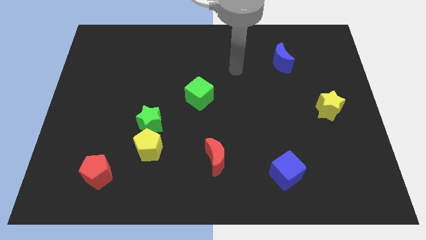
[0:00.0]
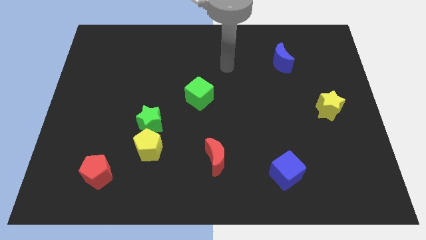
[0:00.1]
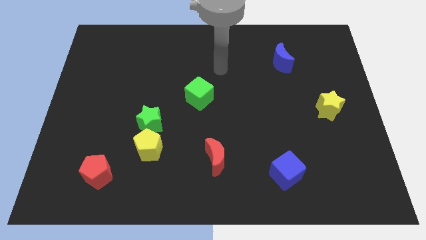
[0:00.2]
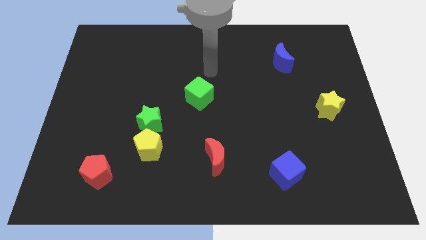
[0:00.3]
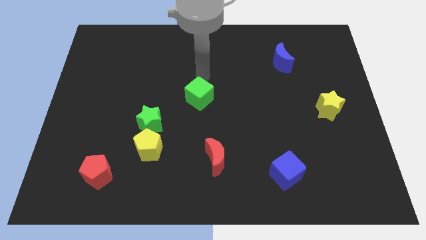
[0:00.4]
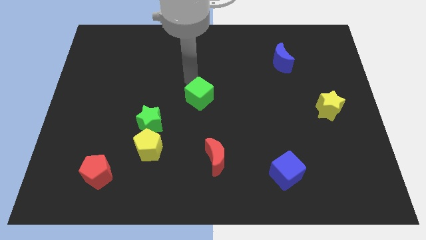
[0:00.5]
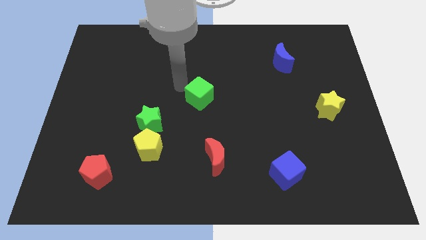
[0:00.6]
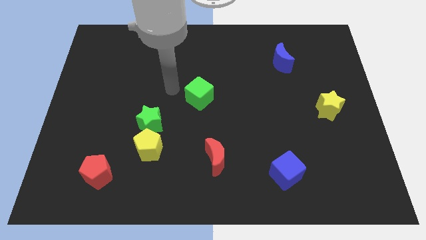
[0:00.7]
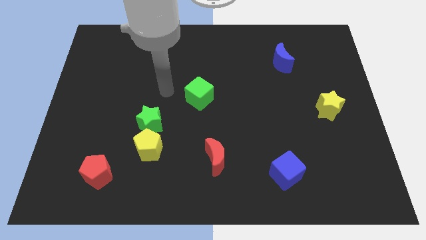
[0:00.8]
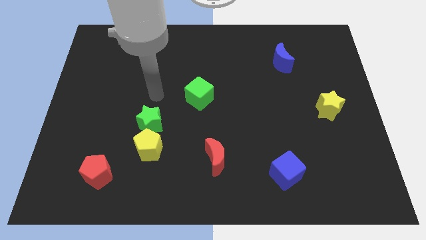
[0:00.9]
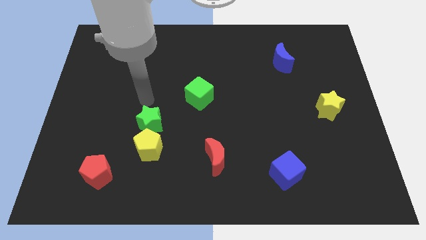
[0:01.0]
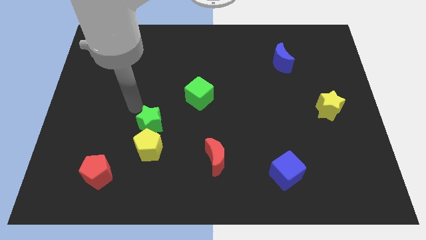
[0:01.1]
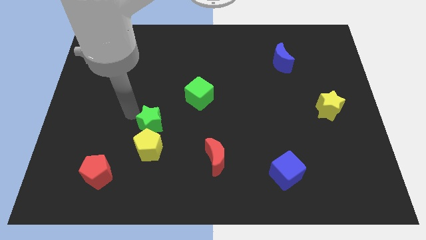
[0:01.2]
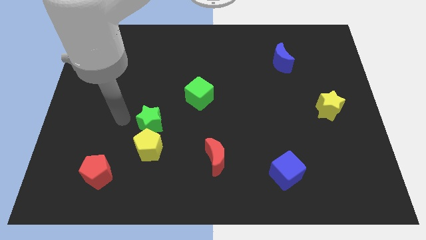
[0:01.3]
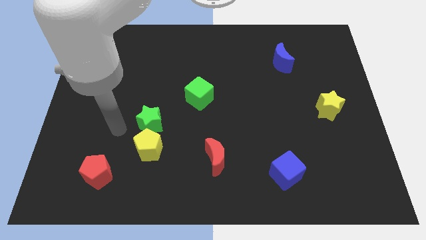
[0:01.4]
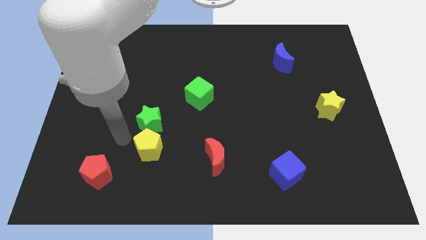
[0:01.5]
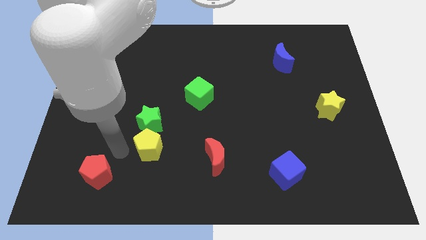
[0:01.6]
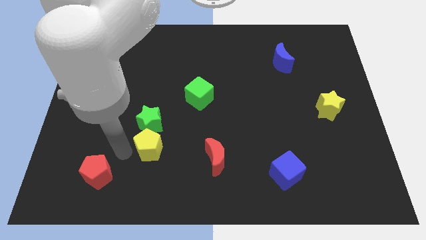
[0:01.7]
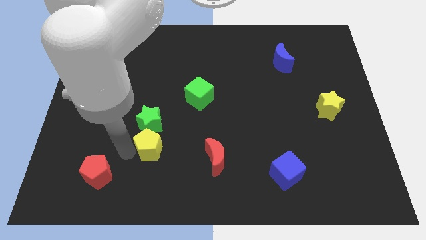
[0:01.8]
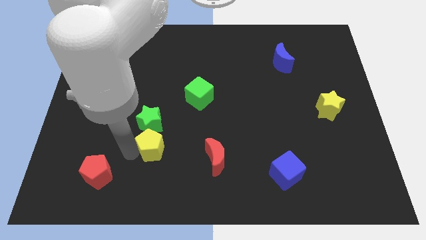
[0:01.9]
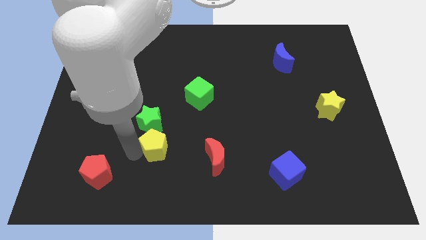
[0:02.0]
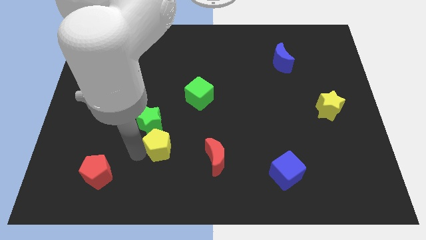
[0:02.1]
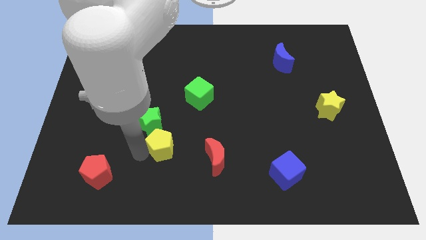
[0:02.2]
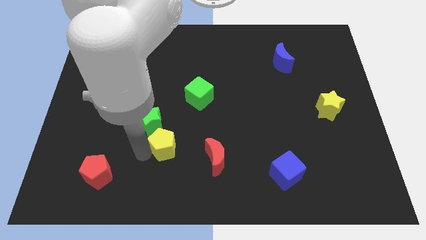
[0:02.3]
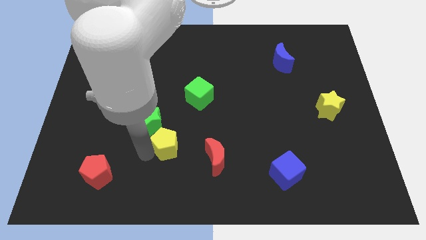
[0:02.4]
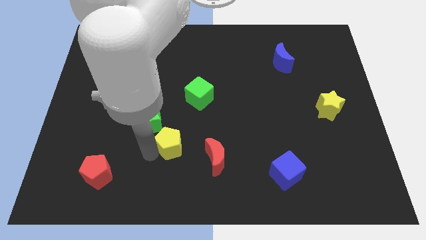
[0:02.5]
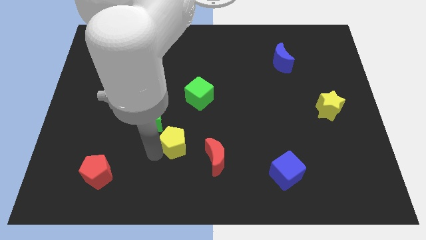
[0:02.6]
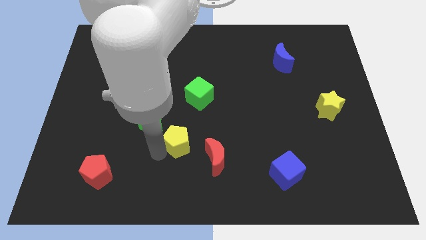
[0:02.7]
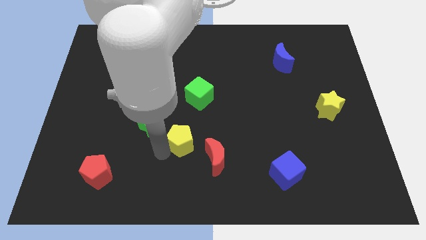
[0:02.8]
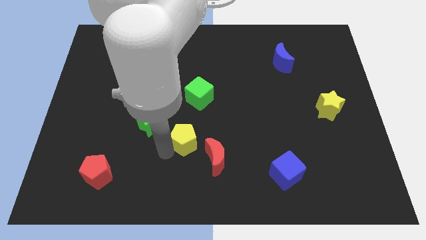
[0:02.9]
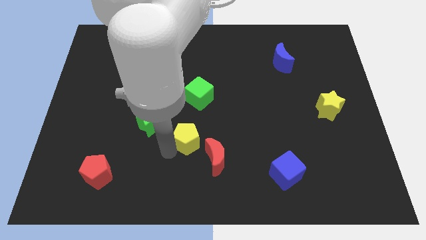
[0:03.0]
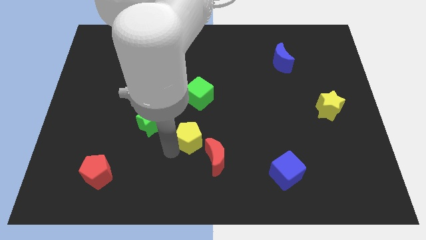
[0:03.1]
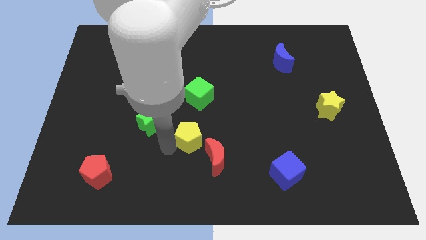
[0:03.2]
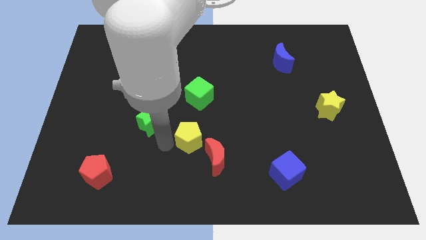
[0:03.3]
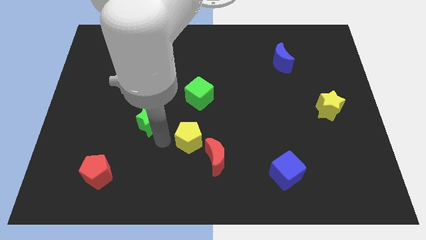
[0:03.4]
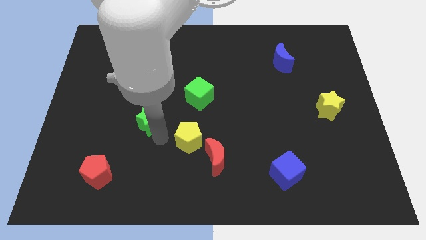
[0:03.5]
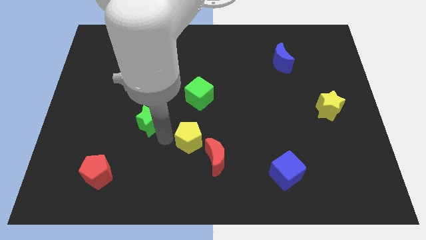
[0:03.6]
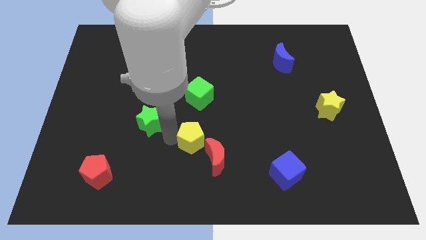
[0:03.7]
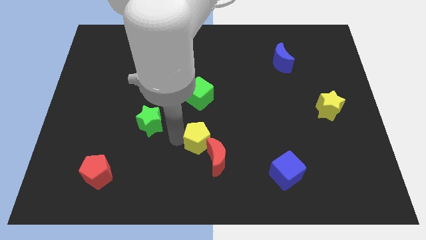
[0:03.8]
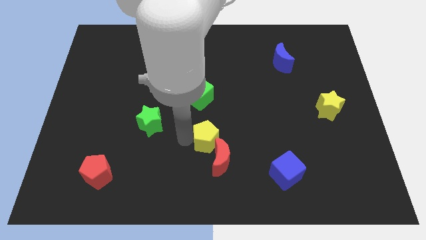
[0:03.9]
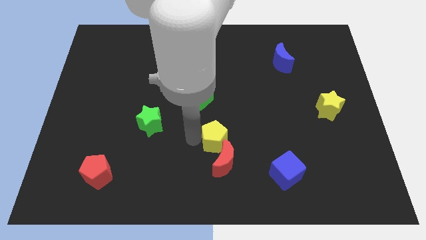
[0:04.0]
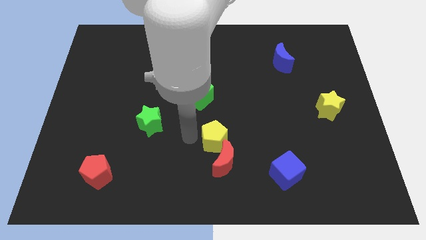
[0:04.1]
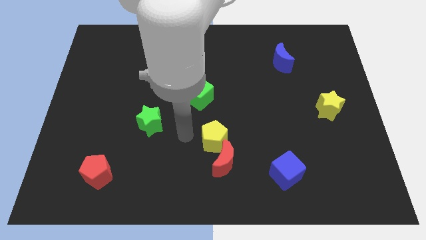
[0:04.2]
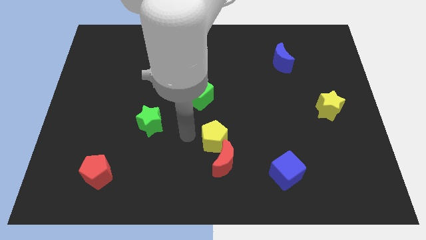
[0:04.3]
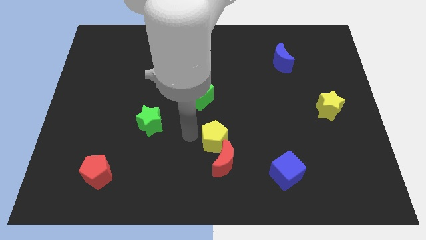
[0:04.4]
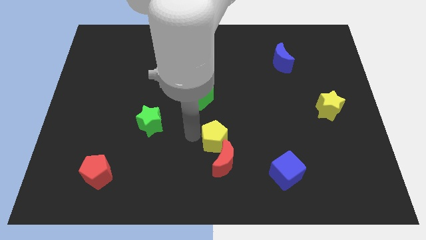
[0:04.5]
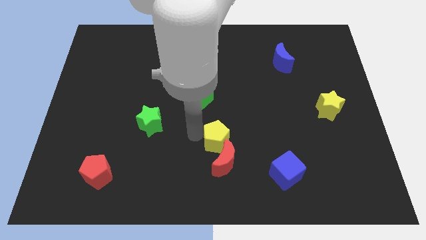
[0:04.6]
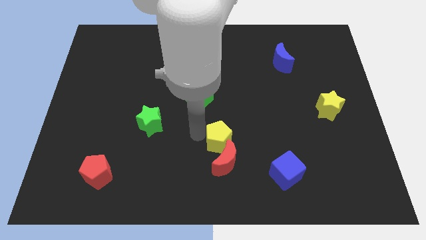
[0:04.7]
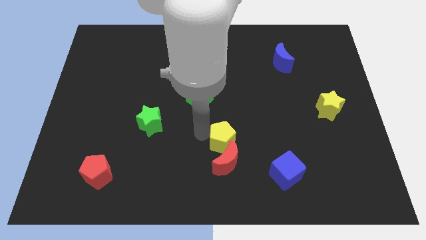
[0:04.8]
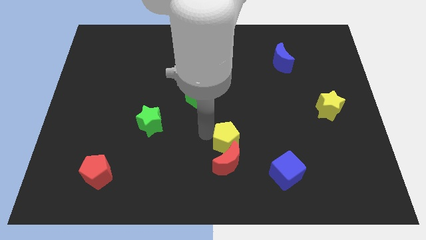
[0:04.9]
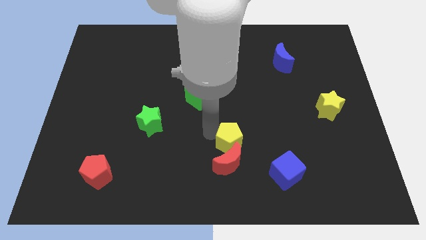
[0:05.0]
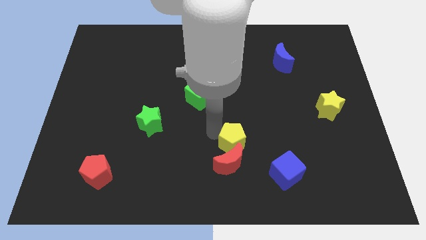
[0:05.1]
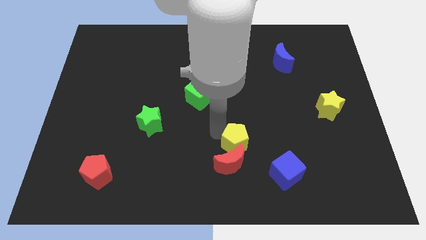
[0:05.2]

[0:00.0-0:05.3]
slide the yellow pentagon diagonally up and to the left of the blue cube

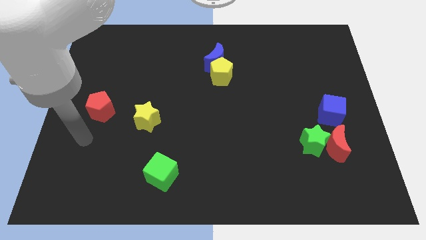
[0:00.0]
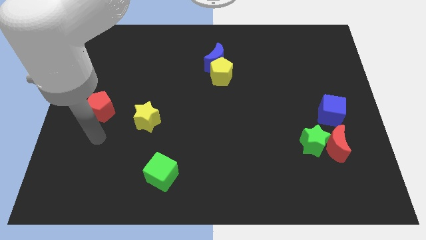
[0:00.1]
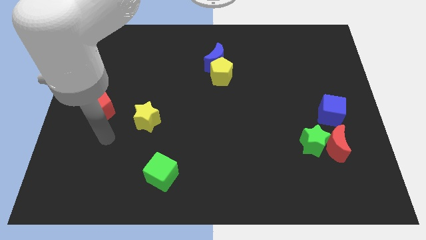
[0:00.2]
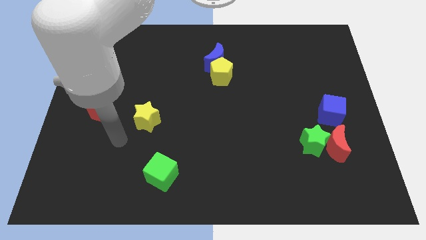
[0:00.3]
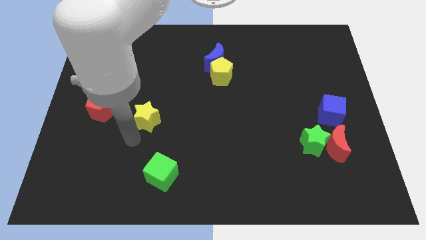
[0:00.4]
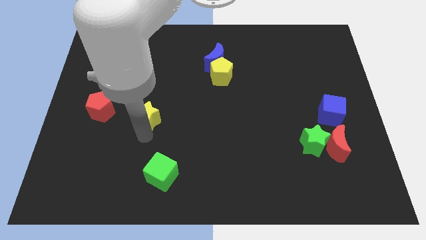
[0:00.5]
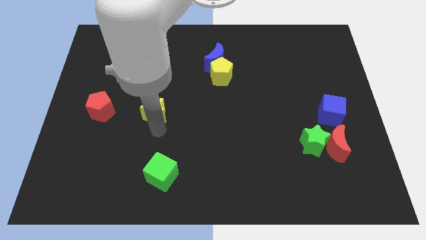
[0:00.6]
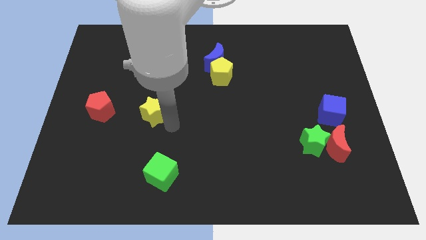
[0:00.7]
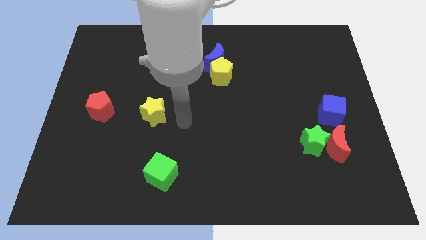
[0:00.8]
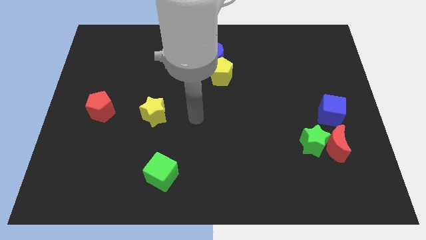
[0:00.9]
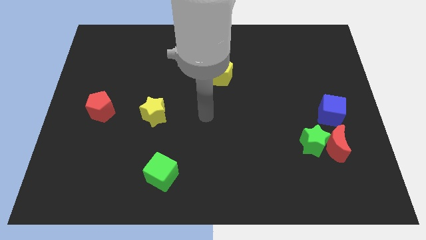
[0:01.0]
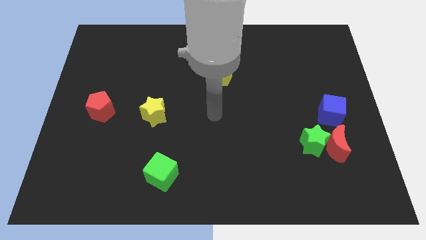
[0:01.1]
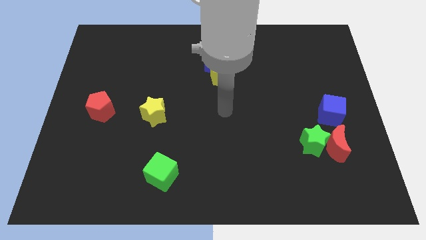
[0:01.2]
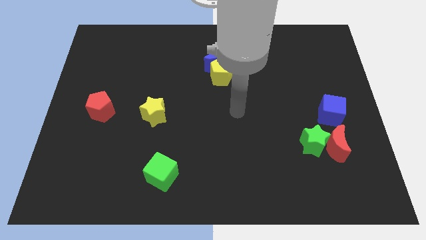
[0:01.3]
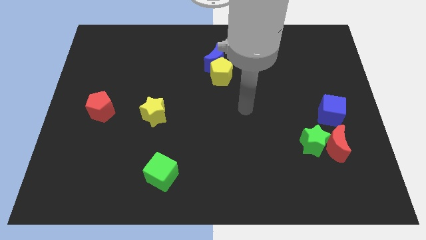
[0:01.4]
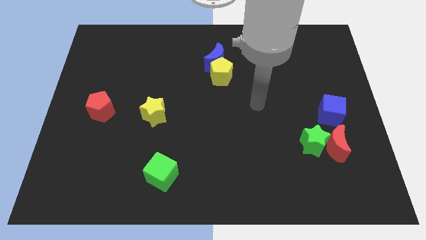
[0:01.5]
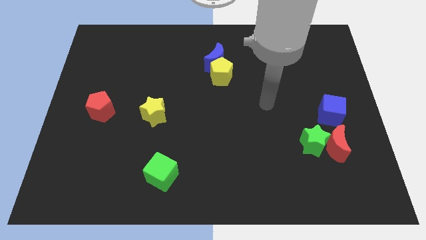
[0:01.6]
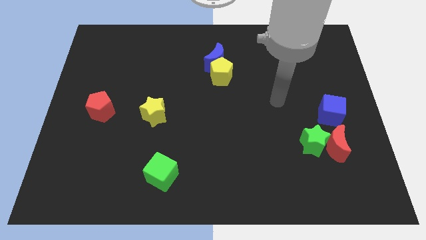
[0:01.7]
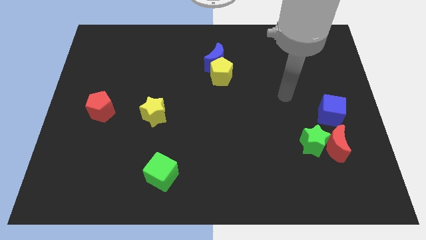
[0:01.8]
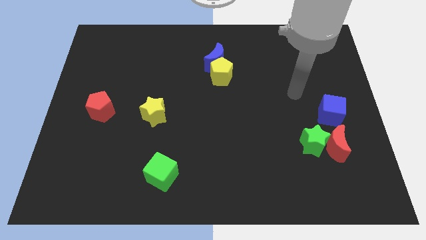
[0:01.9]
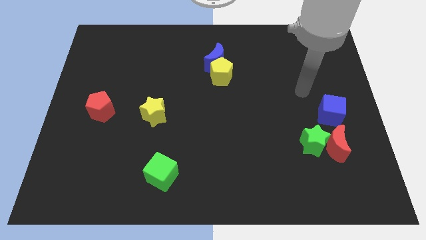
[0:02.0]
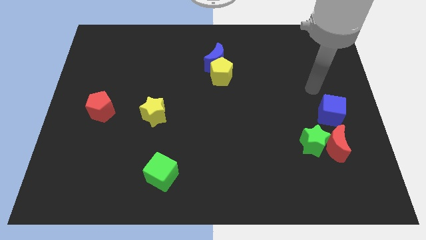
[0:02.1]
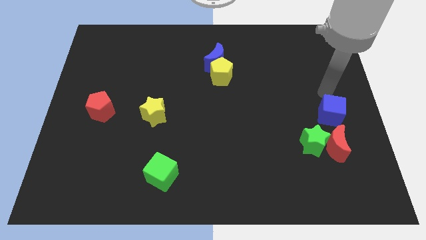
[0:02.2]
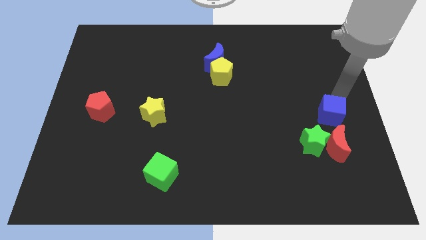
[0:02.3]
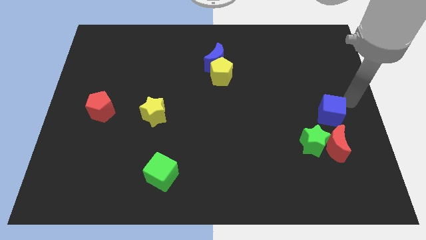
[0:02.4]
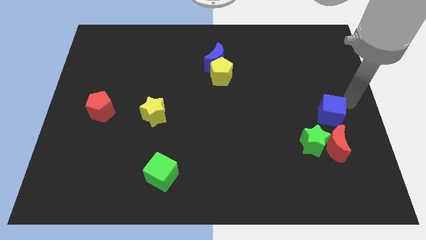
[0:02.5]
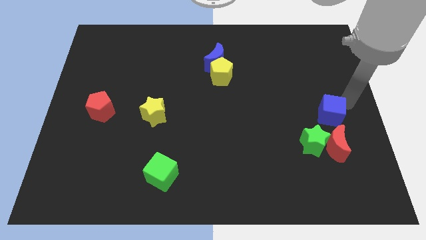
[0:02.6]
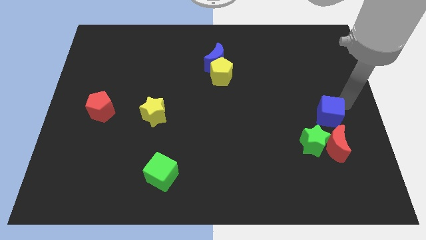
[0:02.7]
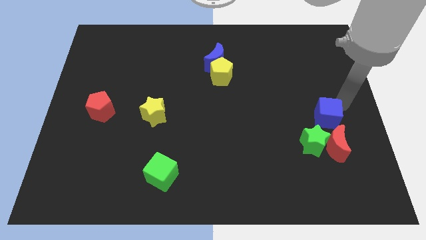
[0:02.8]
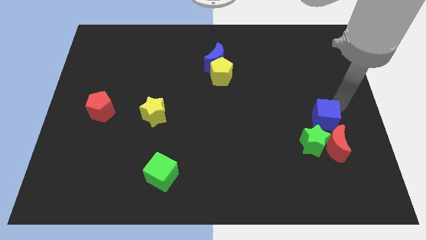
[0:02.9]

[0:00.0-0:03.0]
push the blue cube to the top left of the red moon
